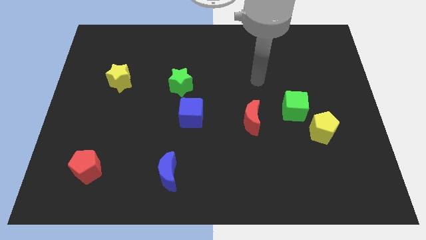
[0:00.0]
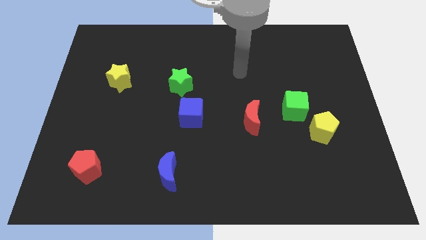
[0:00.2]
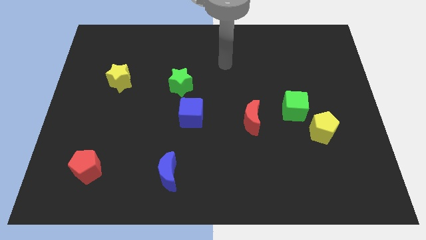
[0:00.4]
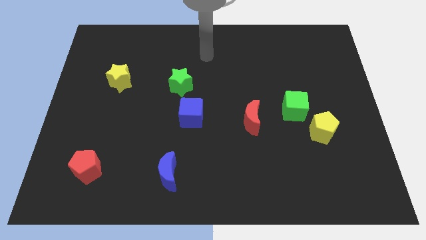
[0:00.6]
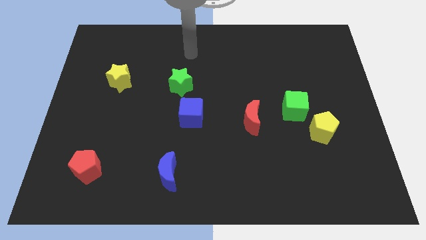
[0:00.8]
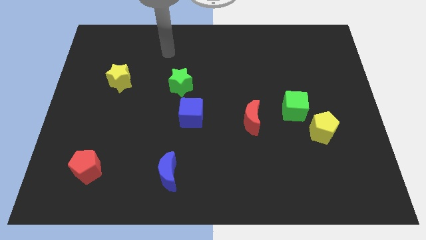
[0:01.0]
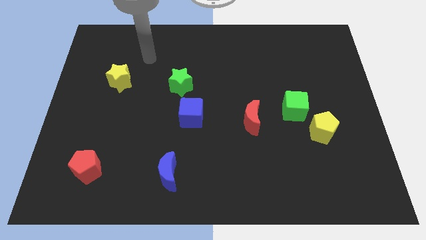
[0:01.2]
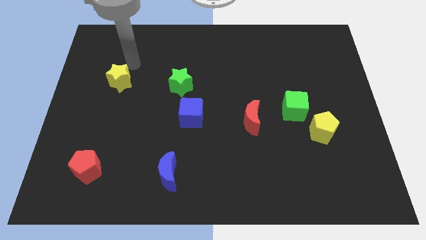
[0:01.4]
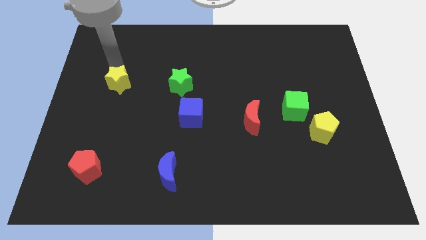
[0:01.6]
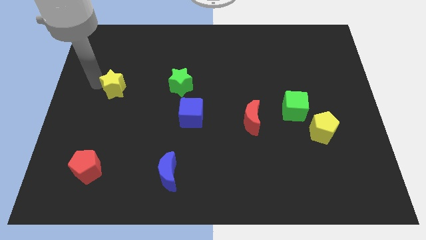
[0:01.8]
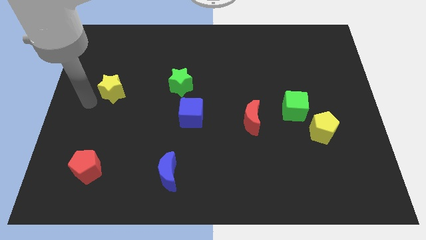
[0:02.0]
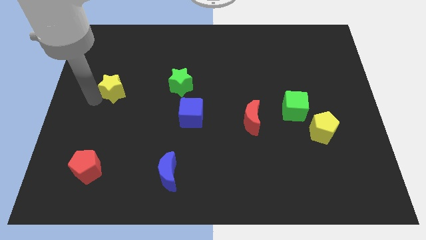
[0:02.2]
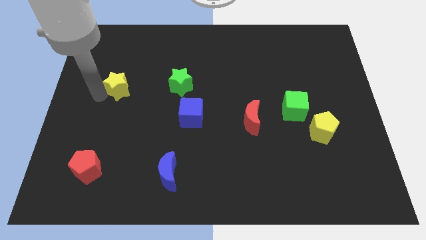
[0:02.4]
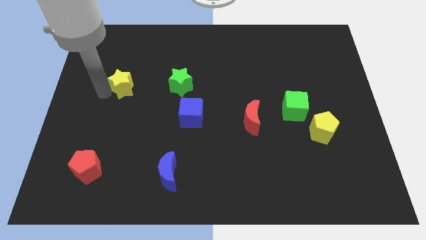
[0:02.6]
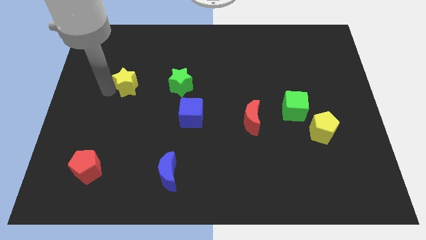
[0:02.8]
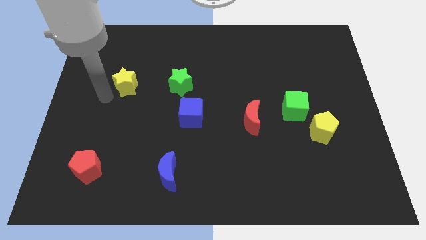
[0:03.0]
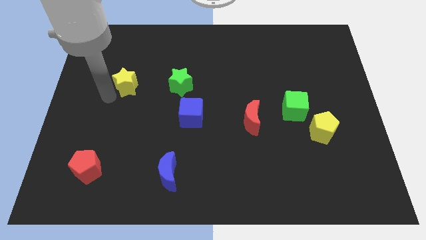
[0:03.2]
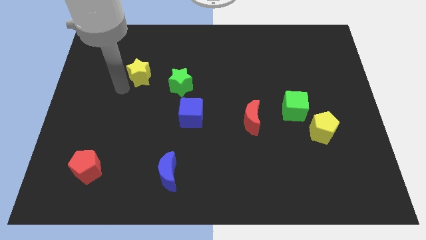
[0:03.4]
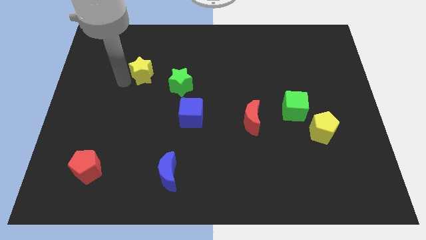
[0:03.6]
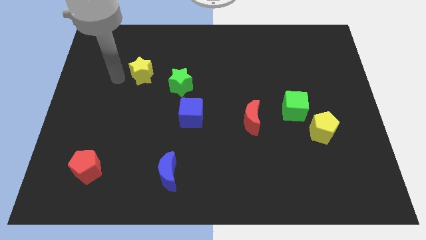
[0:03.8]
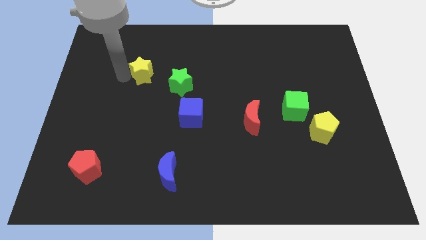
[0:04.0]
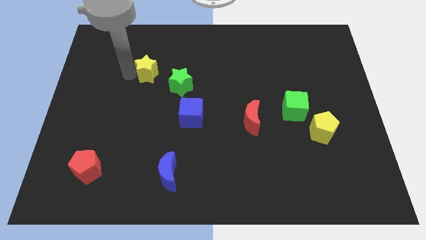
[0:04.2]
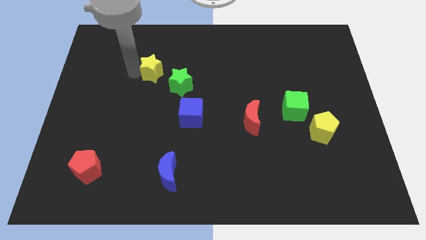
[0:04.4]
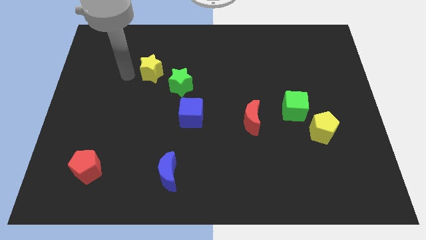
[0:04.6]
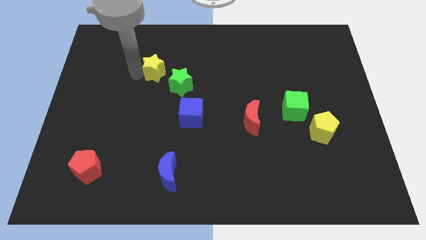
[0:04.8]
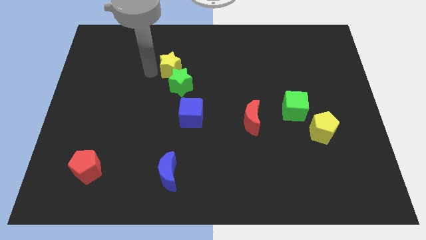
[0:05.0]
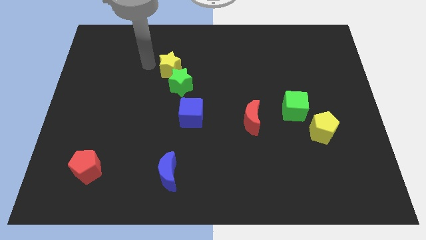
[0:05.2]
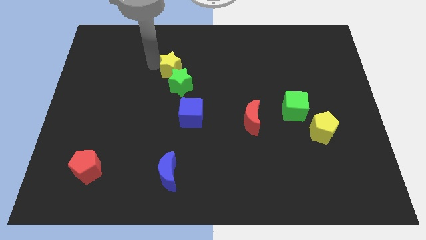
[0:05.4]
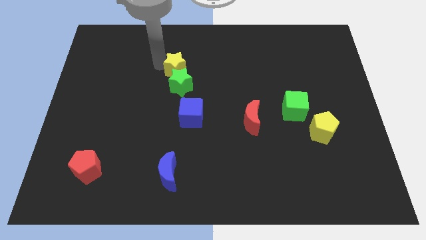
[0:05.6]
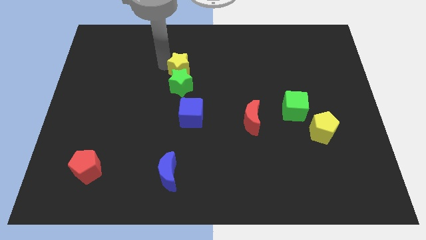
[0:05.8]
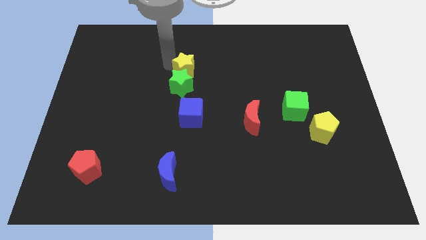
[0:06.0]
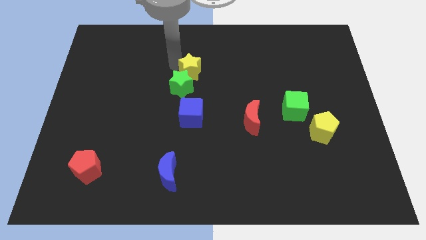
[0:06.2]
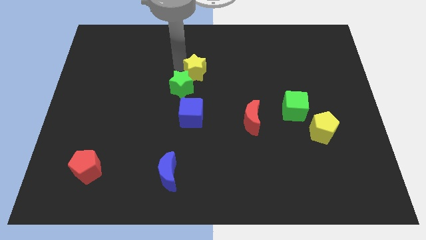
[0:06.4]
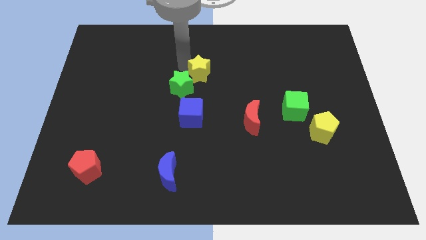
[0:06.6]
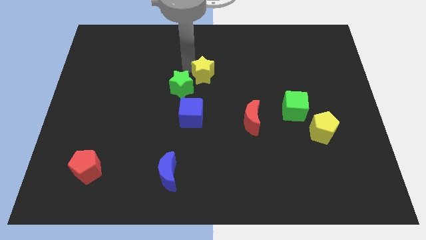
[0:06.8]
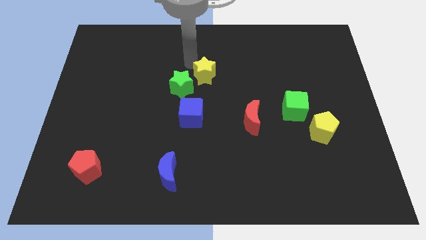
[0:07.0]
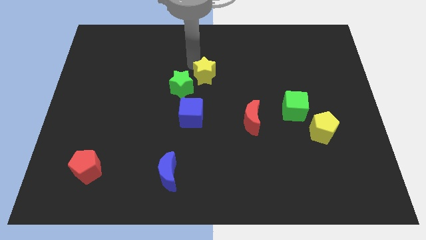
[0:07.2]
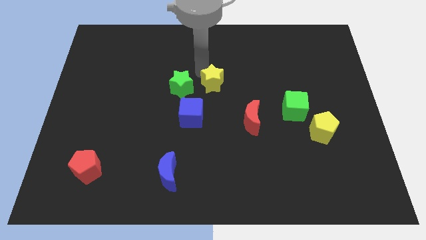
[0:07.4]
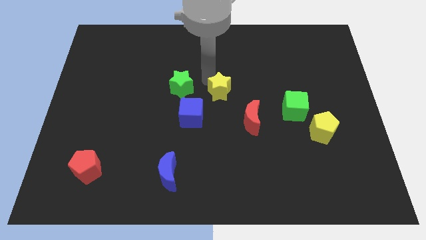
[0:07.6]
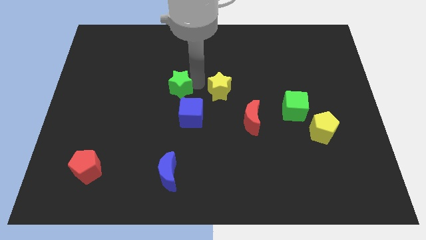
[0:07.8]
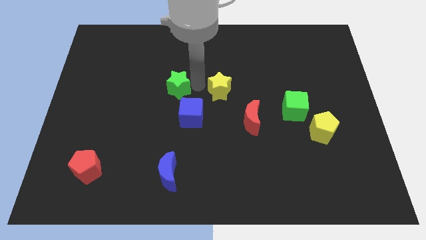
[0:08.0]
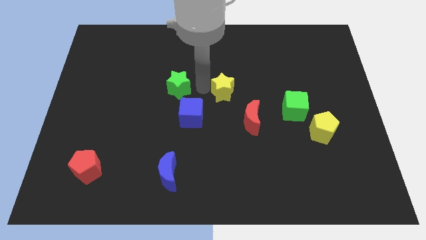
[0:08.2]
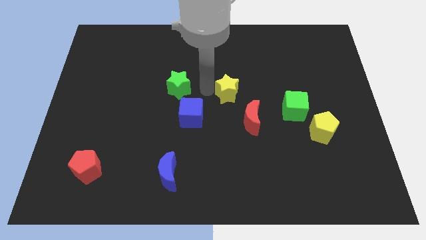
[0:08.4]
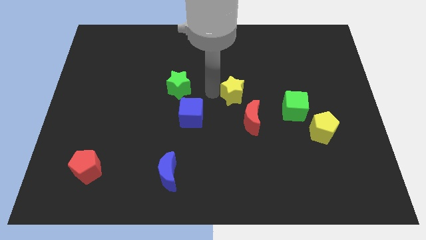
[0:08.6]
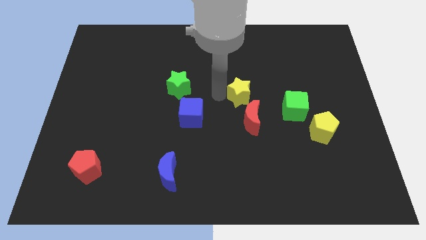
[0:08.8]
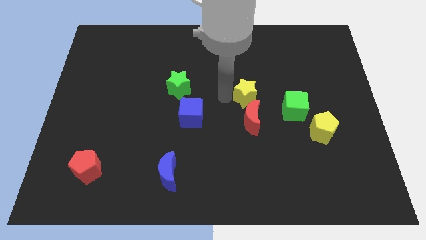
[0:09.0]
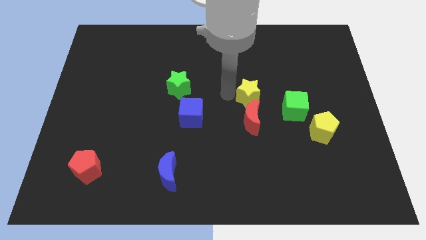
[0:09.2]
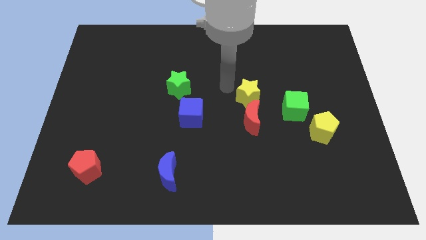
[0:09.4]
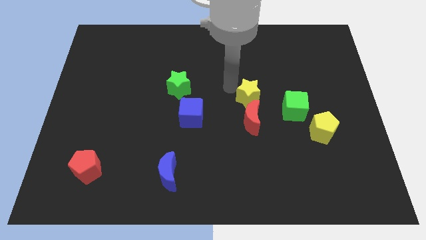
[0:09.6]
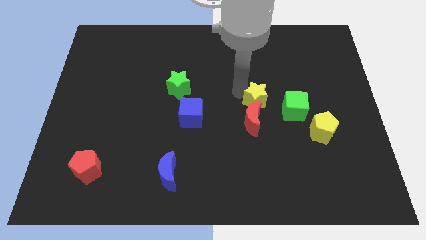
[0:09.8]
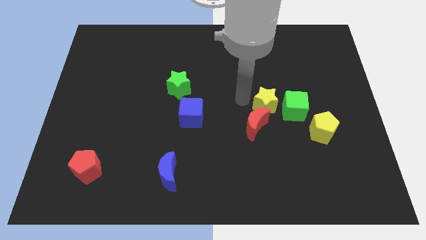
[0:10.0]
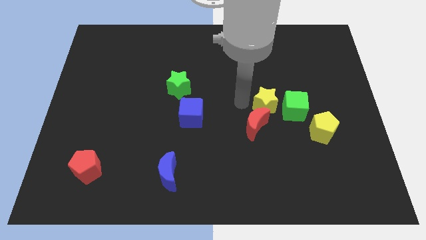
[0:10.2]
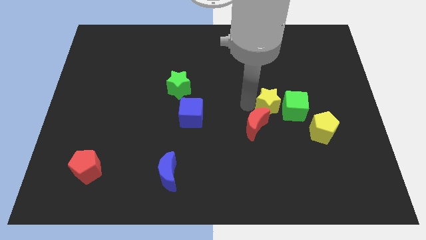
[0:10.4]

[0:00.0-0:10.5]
move the yellow star towards the green cube

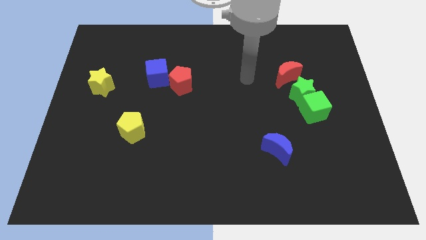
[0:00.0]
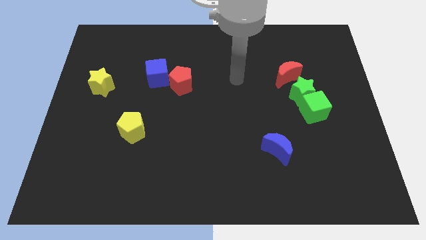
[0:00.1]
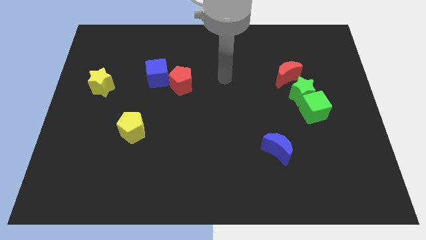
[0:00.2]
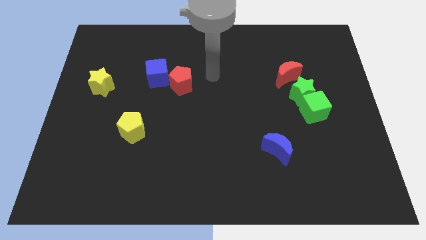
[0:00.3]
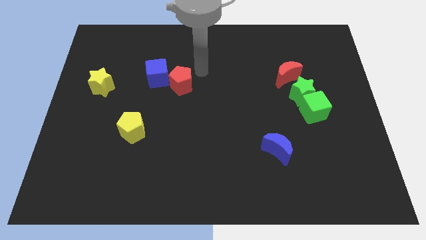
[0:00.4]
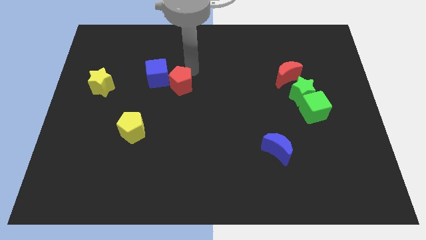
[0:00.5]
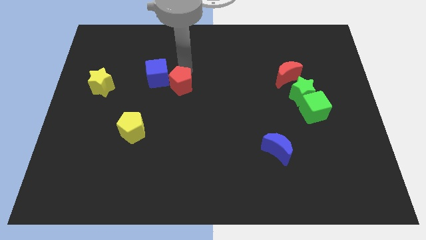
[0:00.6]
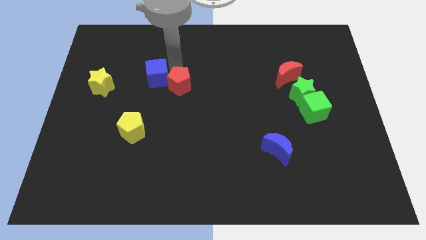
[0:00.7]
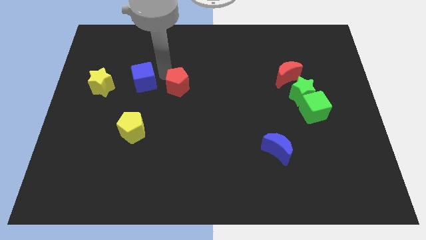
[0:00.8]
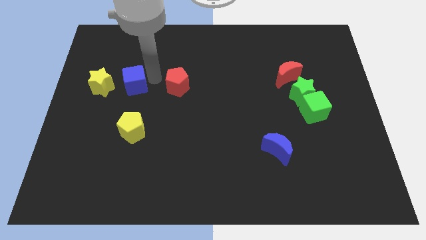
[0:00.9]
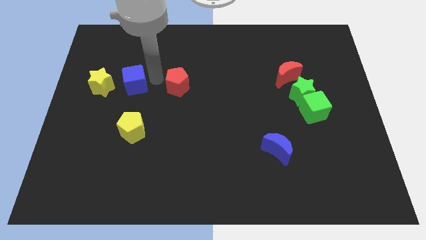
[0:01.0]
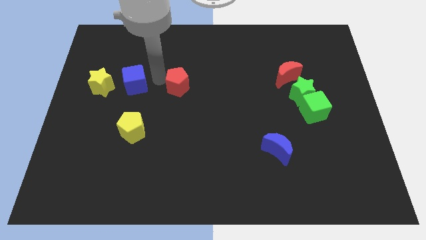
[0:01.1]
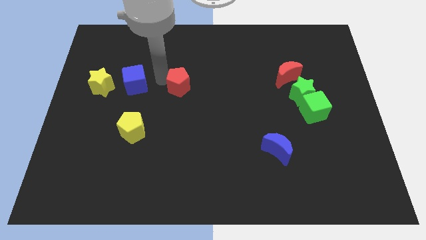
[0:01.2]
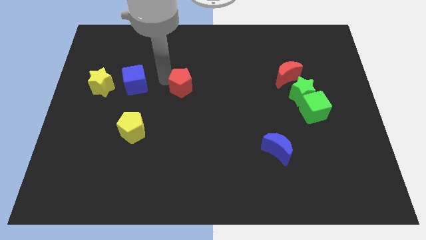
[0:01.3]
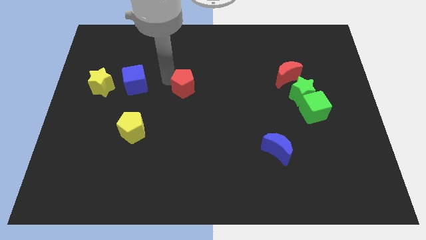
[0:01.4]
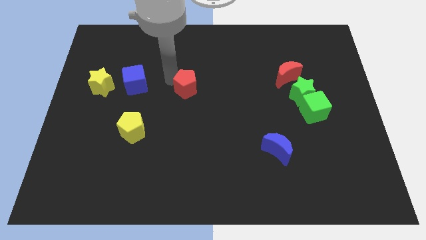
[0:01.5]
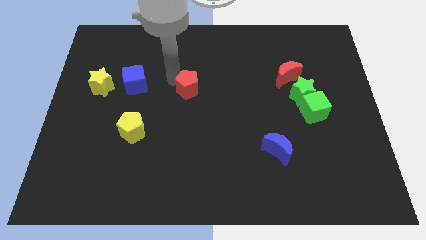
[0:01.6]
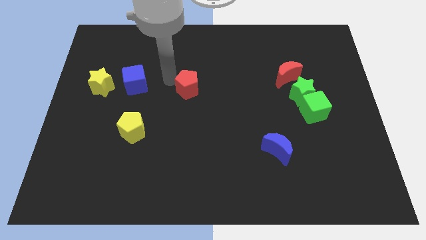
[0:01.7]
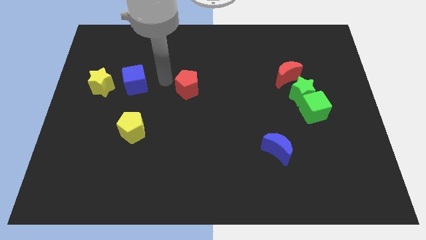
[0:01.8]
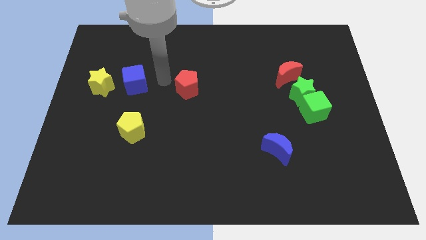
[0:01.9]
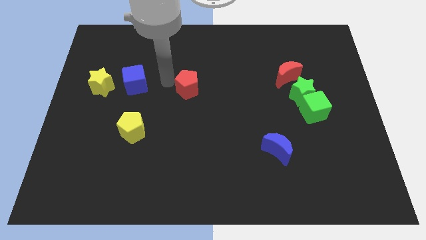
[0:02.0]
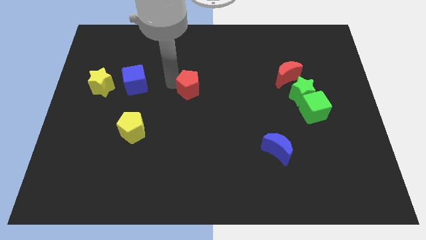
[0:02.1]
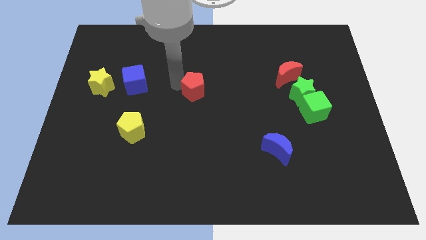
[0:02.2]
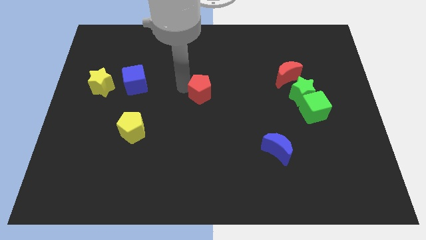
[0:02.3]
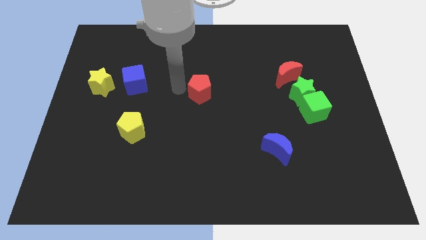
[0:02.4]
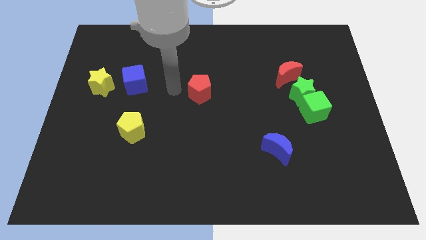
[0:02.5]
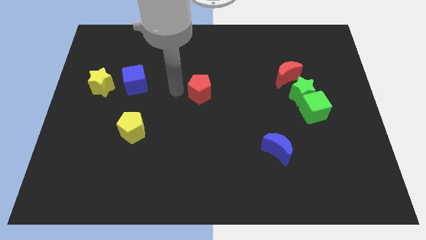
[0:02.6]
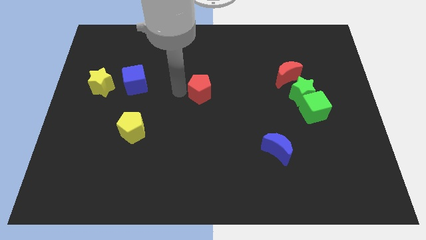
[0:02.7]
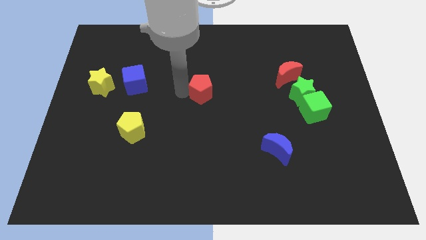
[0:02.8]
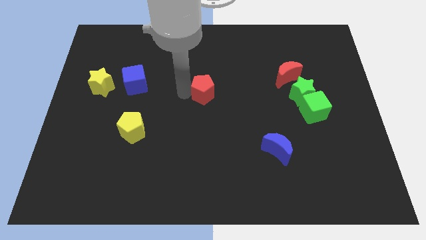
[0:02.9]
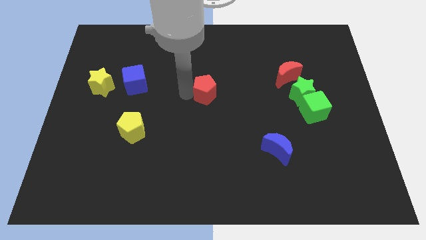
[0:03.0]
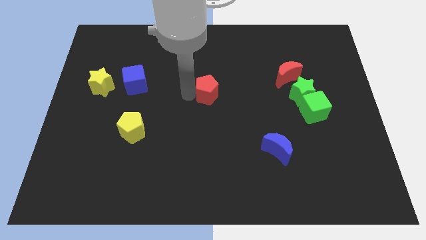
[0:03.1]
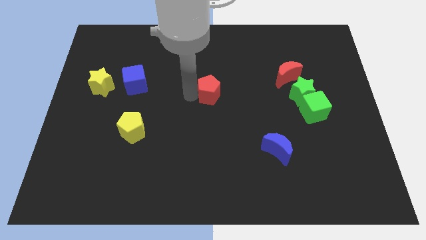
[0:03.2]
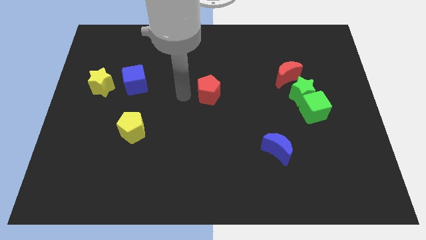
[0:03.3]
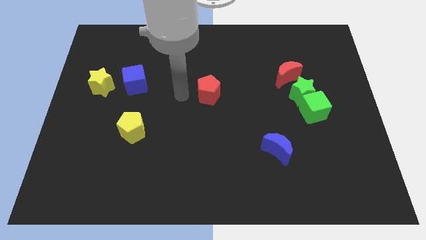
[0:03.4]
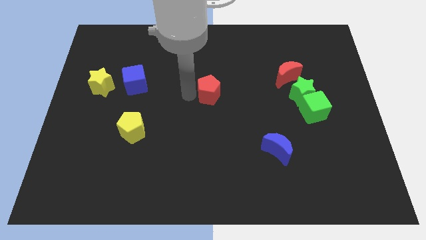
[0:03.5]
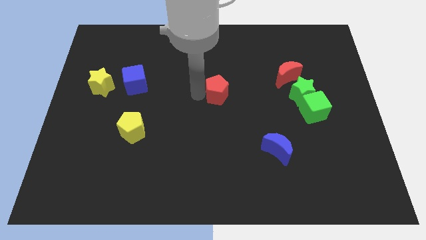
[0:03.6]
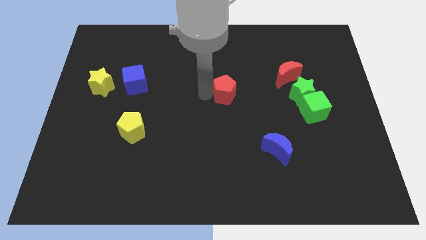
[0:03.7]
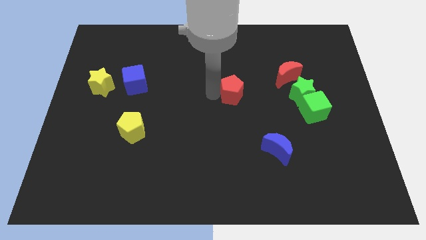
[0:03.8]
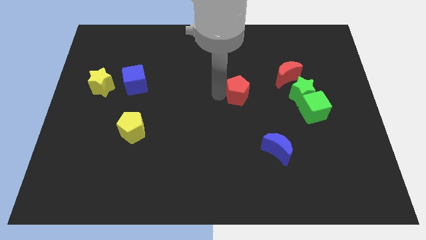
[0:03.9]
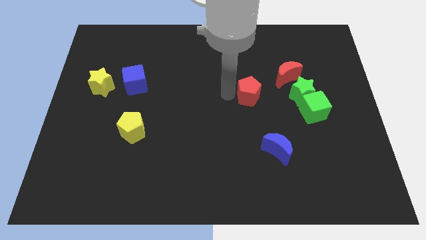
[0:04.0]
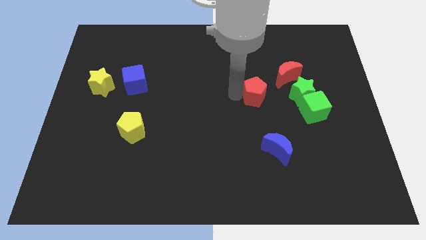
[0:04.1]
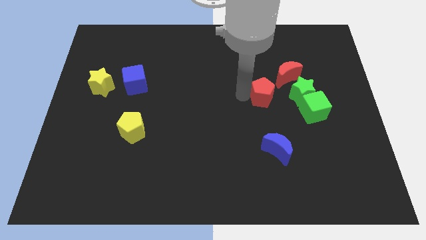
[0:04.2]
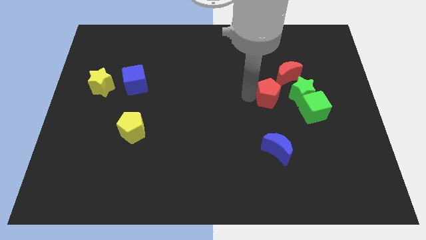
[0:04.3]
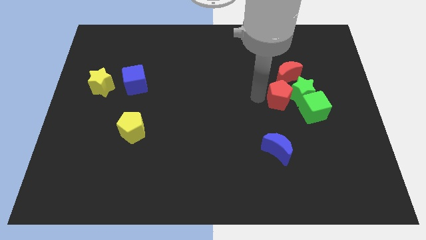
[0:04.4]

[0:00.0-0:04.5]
slide the red pentagon to the green star
